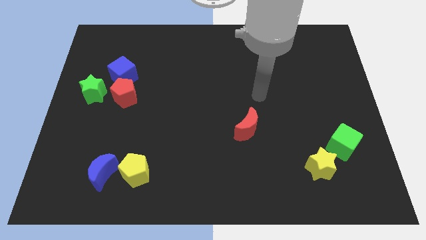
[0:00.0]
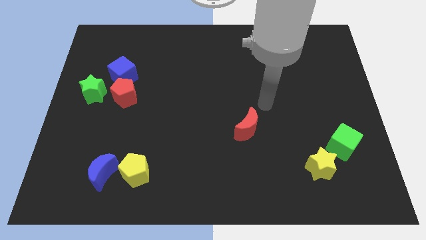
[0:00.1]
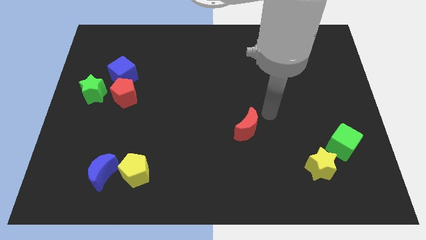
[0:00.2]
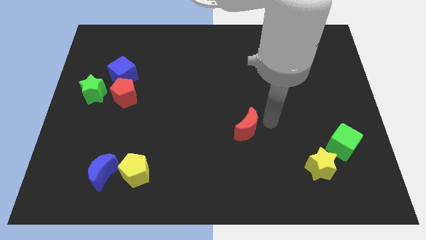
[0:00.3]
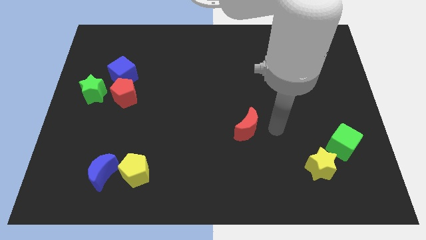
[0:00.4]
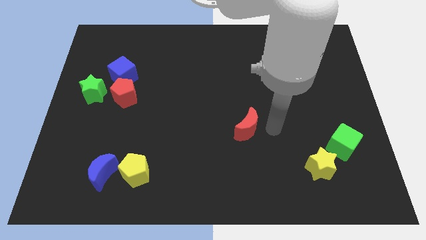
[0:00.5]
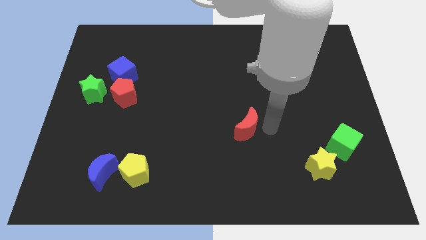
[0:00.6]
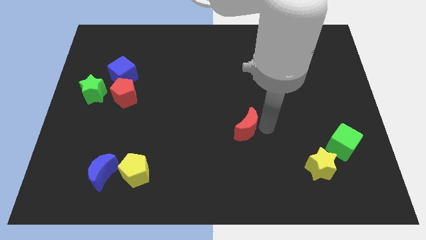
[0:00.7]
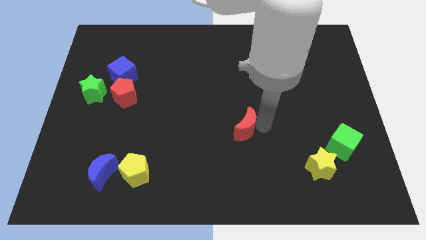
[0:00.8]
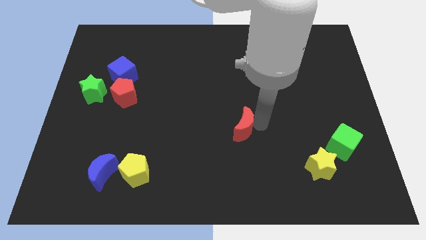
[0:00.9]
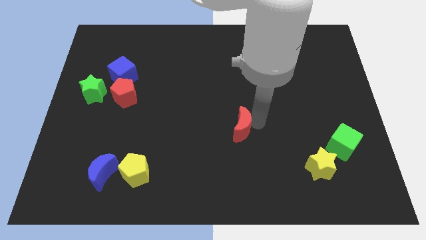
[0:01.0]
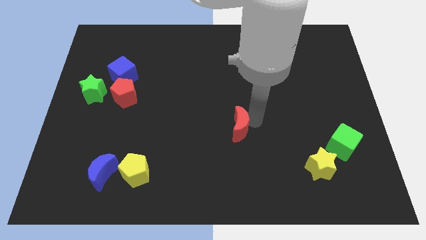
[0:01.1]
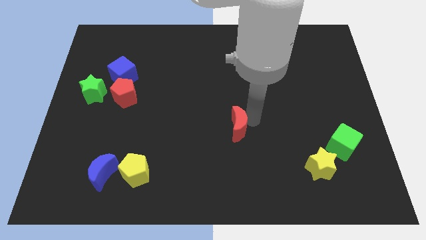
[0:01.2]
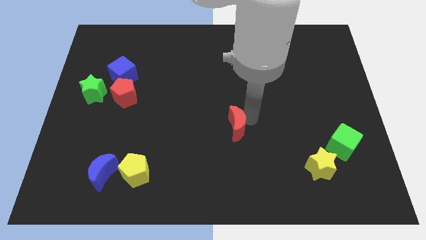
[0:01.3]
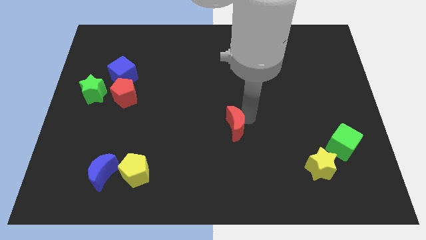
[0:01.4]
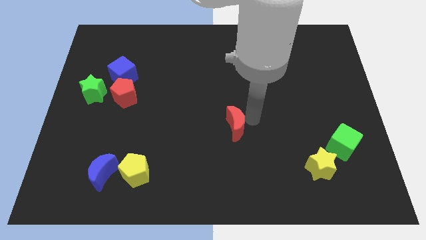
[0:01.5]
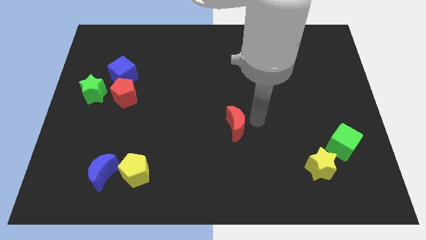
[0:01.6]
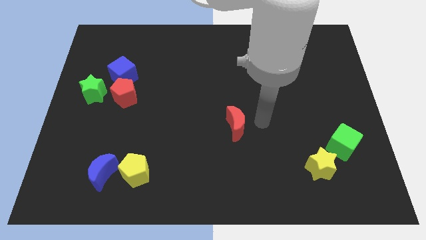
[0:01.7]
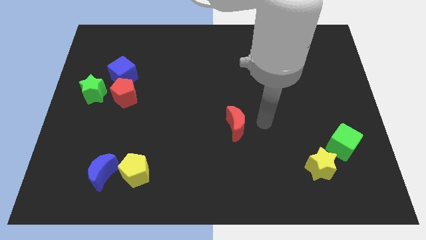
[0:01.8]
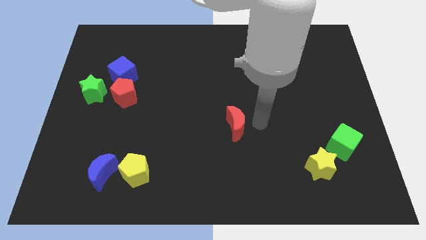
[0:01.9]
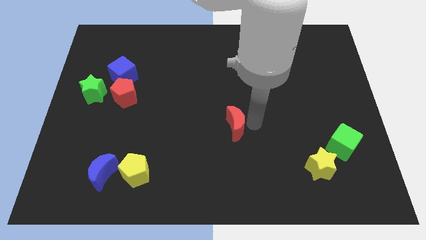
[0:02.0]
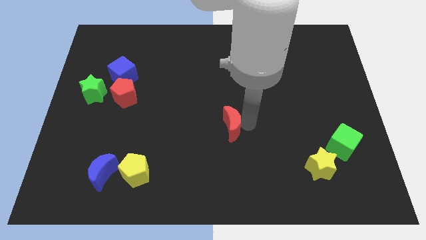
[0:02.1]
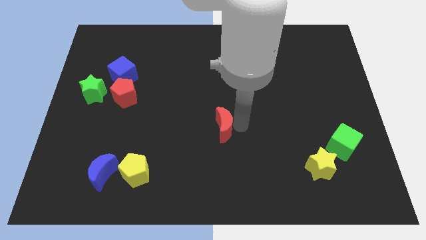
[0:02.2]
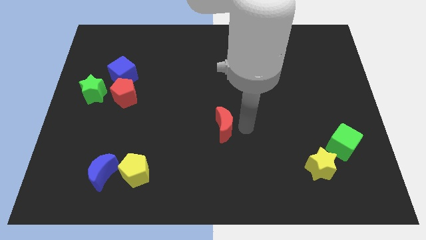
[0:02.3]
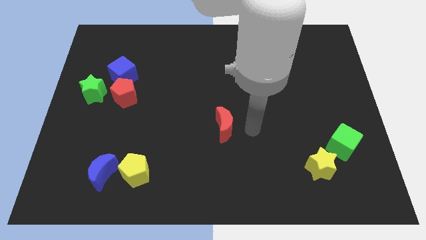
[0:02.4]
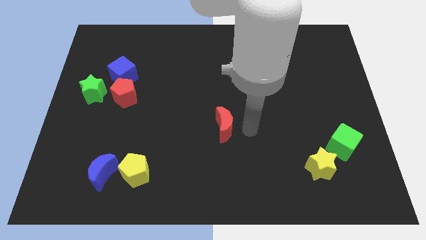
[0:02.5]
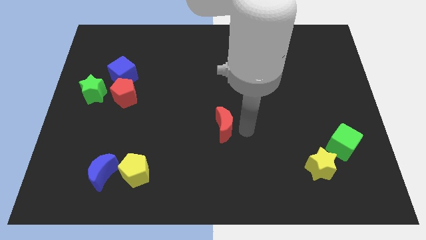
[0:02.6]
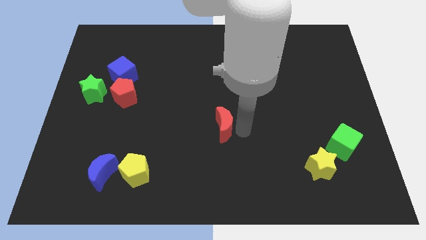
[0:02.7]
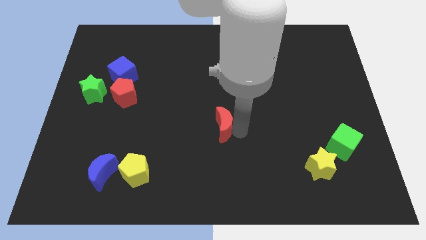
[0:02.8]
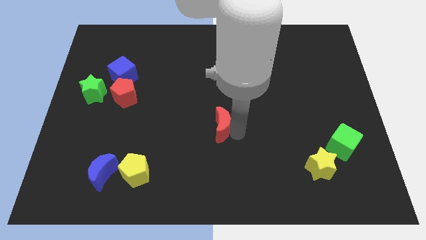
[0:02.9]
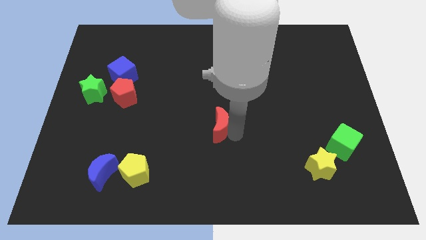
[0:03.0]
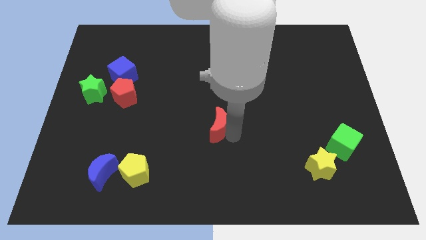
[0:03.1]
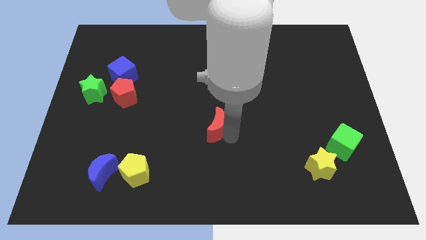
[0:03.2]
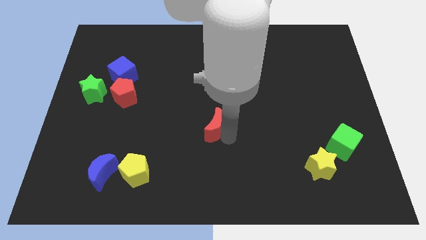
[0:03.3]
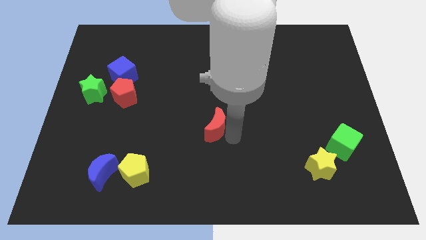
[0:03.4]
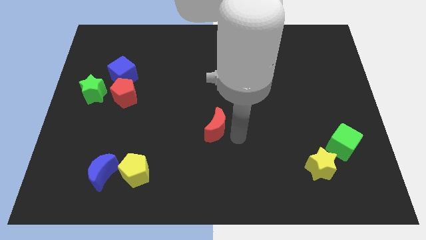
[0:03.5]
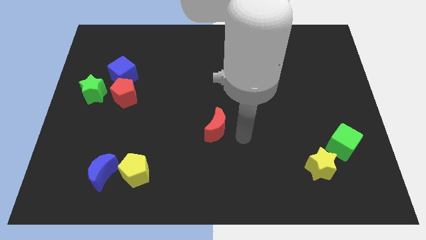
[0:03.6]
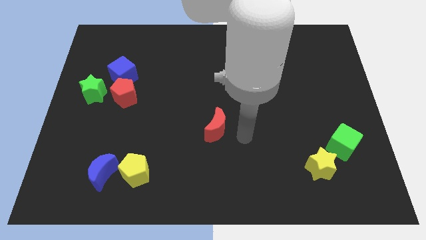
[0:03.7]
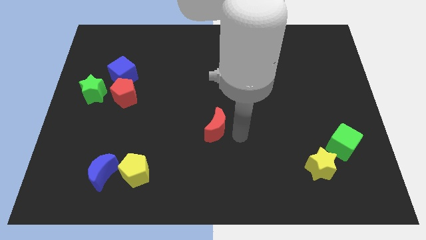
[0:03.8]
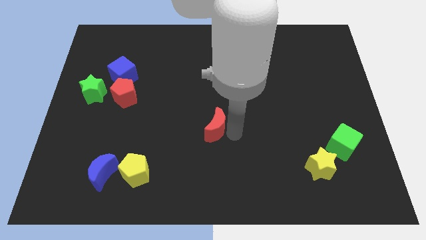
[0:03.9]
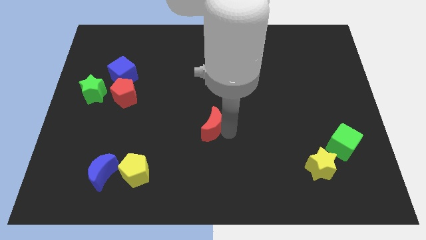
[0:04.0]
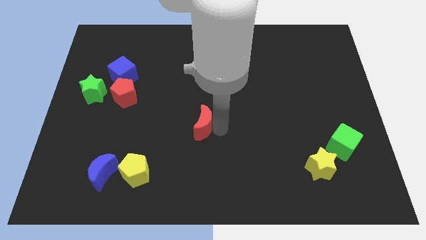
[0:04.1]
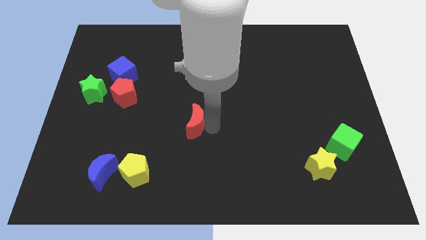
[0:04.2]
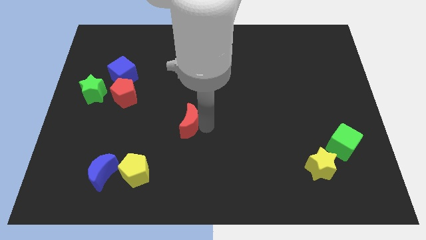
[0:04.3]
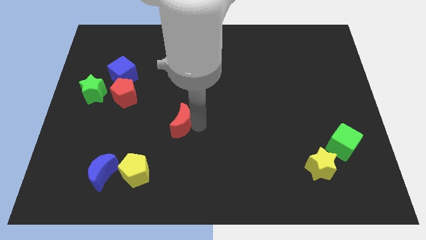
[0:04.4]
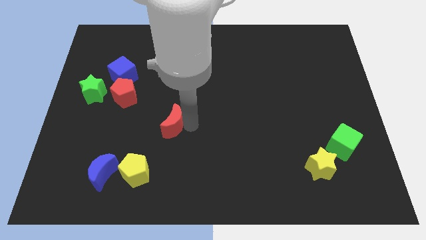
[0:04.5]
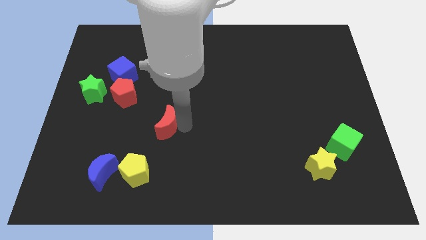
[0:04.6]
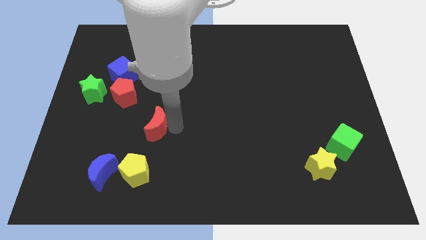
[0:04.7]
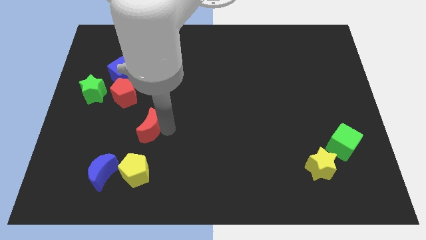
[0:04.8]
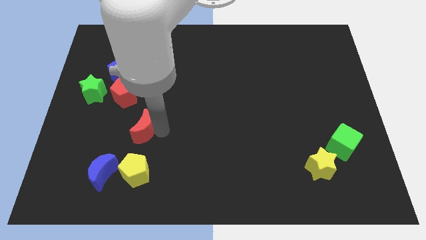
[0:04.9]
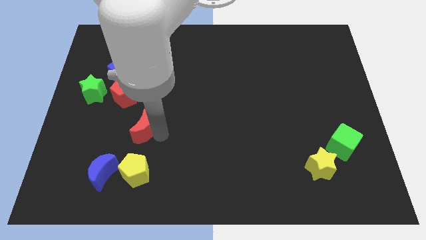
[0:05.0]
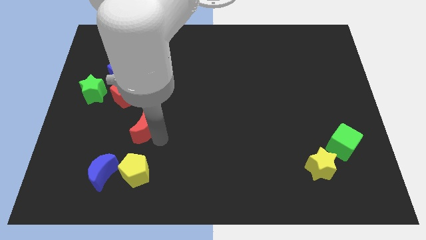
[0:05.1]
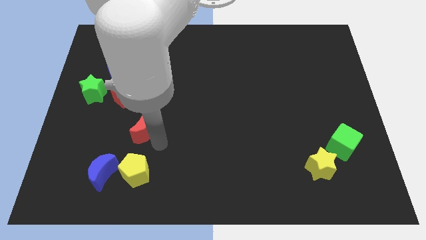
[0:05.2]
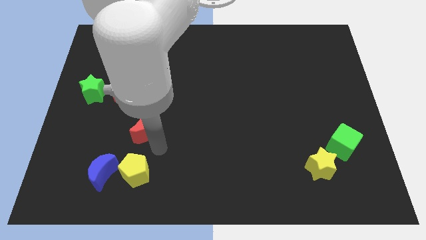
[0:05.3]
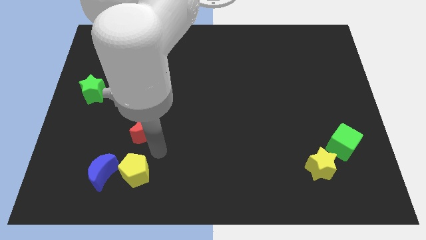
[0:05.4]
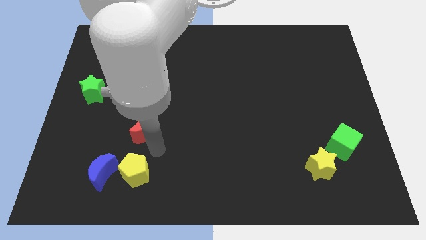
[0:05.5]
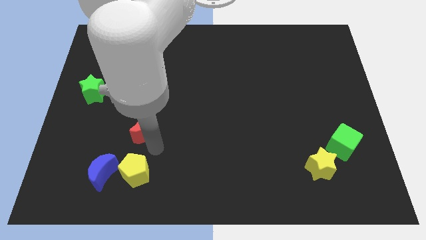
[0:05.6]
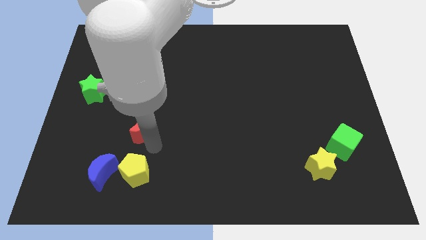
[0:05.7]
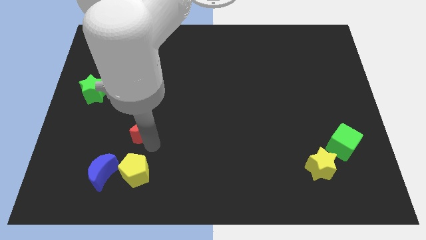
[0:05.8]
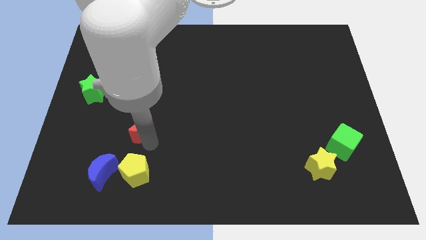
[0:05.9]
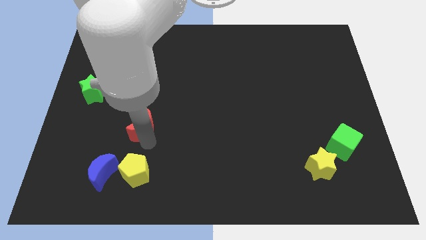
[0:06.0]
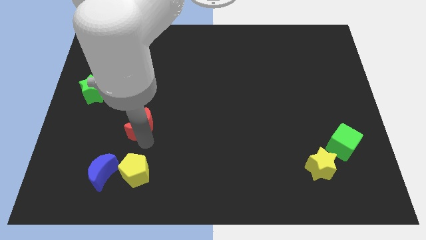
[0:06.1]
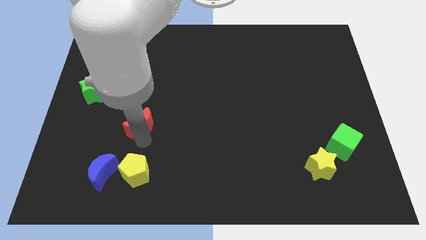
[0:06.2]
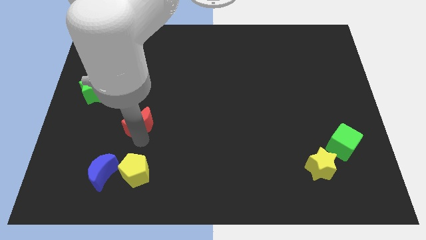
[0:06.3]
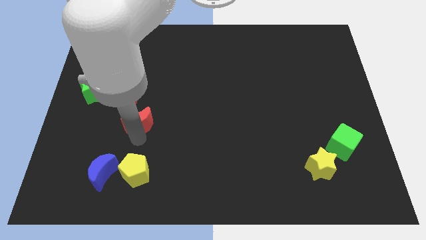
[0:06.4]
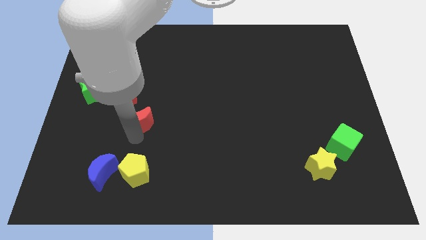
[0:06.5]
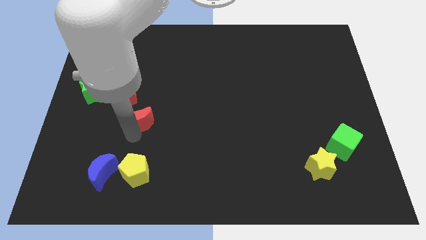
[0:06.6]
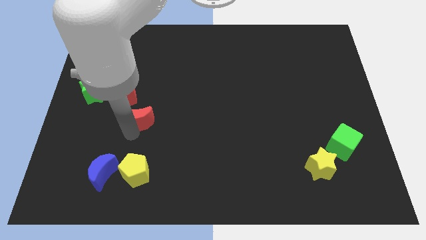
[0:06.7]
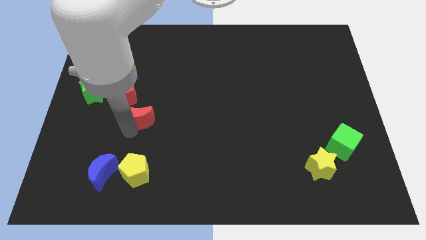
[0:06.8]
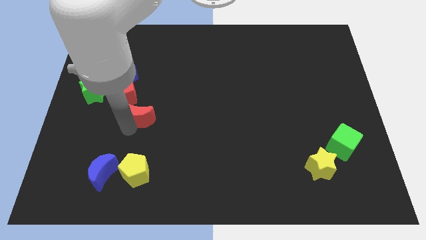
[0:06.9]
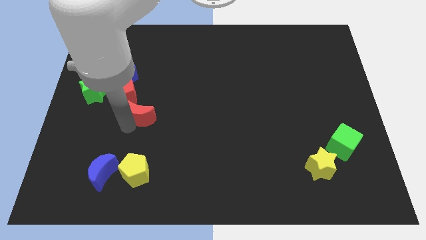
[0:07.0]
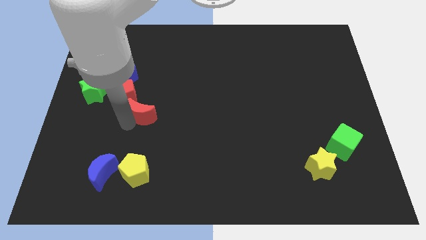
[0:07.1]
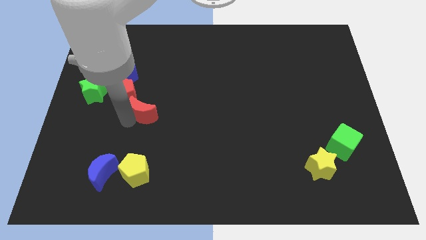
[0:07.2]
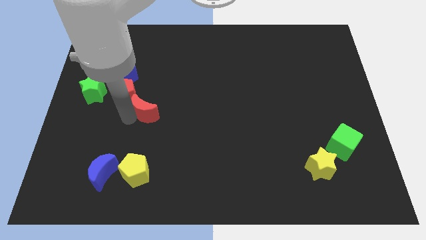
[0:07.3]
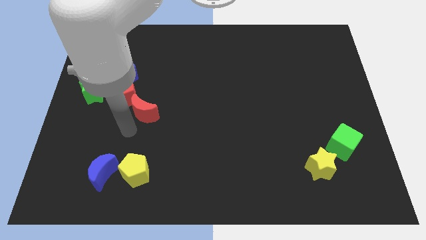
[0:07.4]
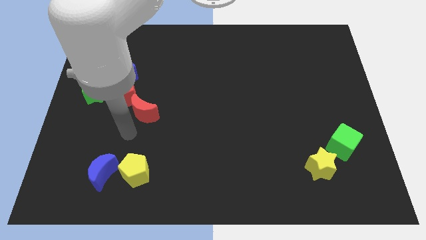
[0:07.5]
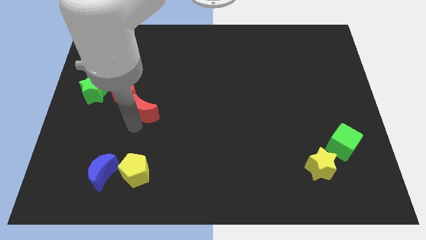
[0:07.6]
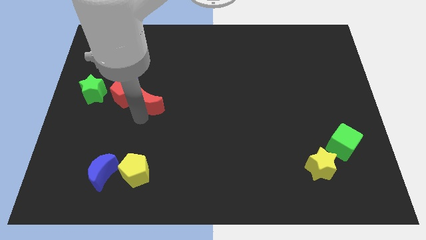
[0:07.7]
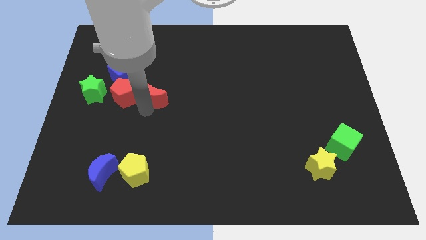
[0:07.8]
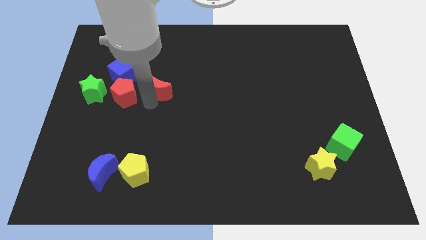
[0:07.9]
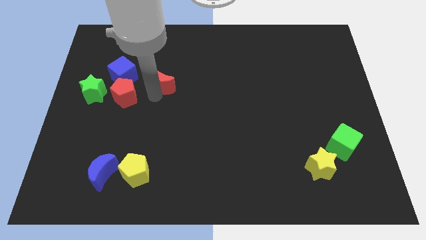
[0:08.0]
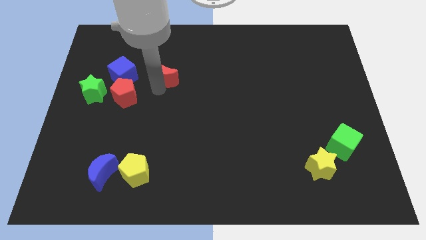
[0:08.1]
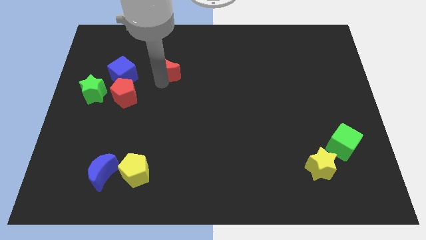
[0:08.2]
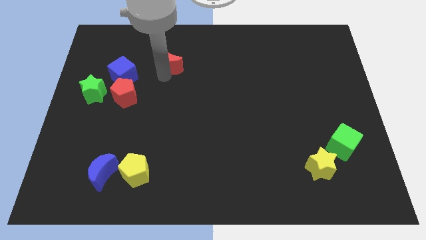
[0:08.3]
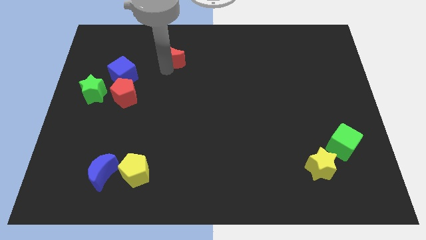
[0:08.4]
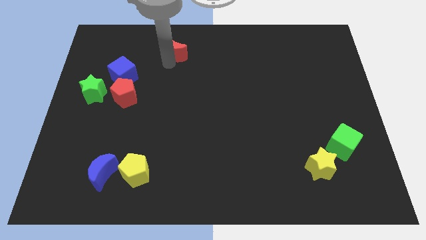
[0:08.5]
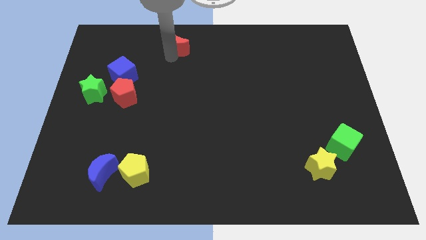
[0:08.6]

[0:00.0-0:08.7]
push the red moon to the top side
